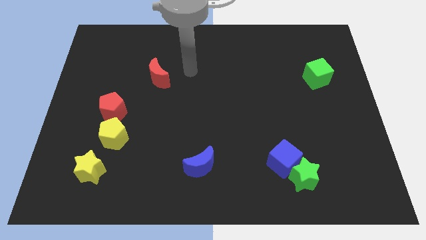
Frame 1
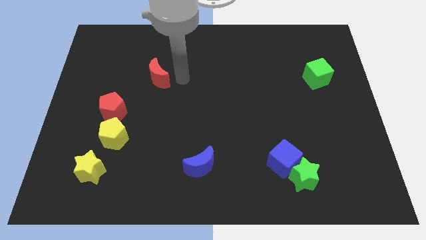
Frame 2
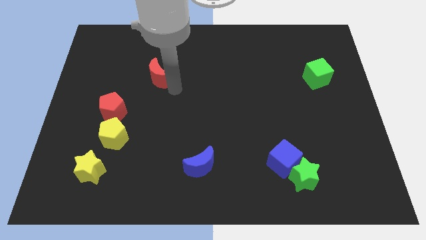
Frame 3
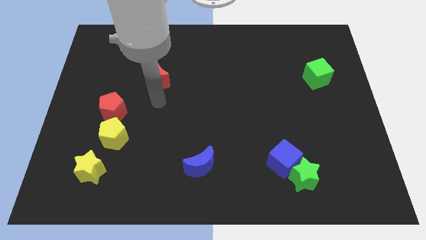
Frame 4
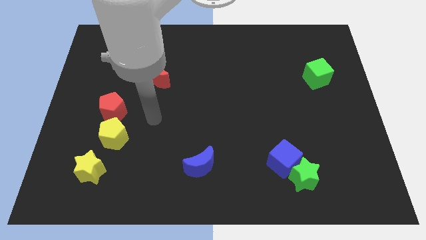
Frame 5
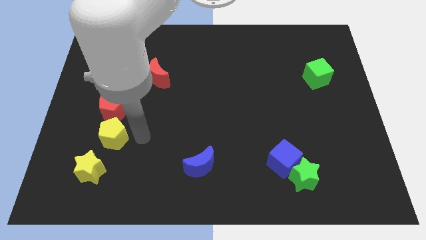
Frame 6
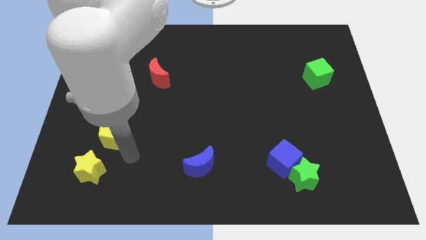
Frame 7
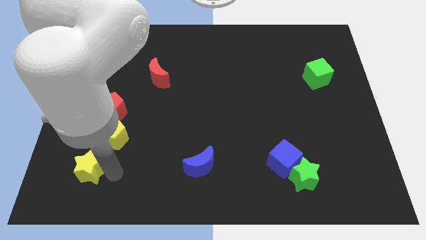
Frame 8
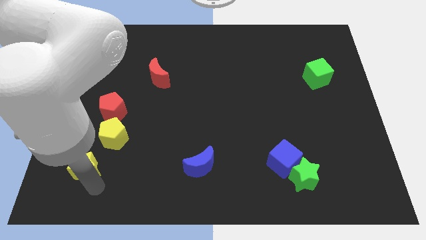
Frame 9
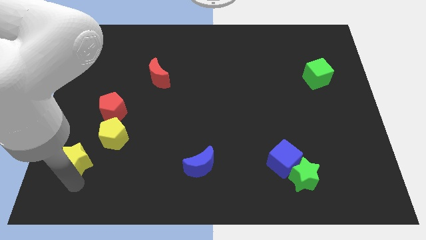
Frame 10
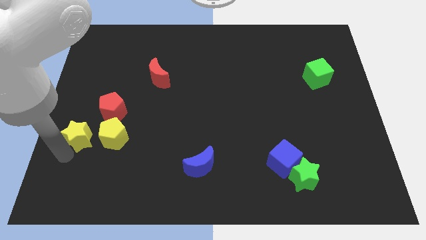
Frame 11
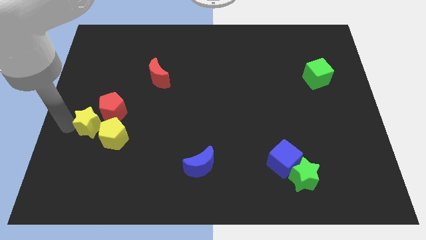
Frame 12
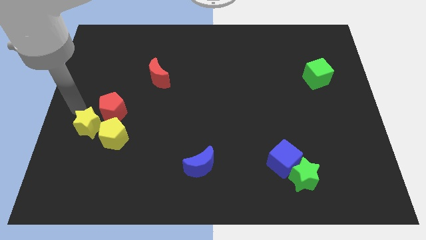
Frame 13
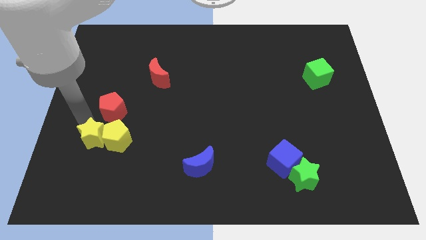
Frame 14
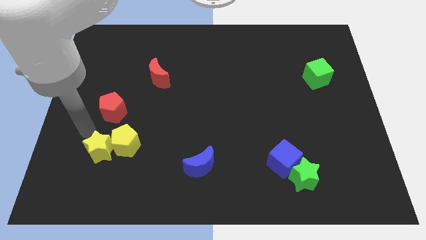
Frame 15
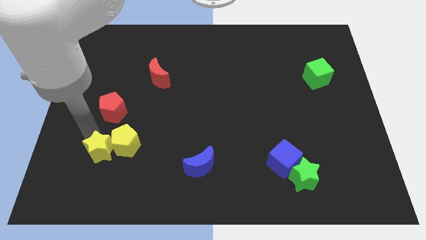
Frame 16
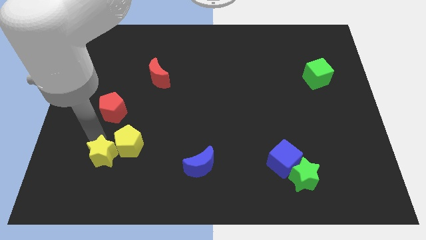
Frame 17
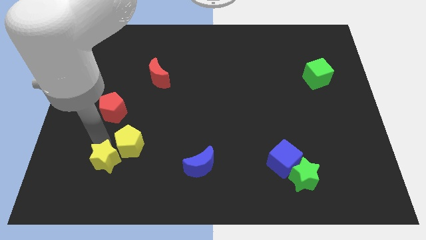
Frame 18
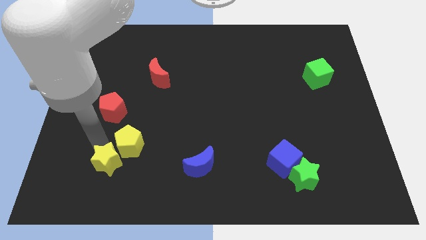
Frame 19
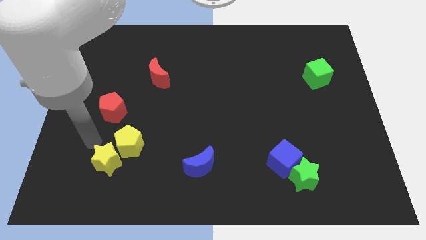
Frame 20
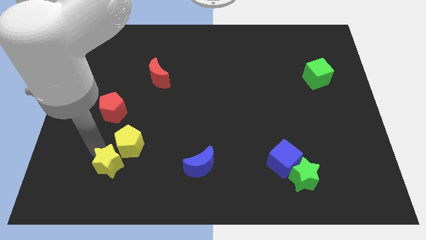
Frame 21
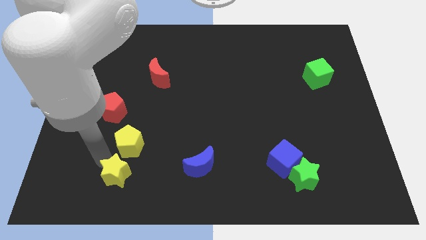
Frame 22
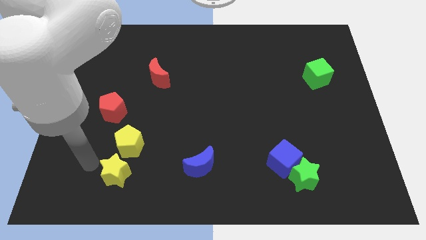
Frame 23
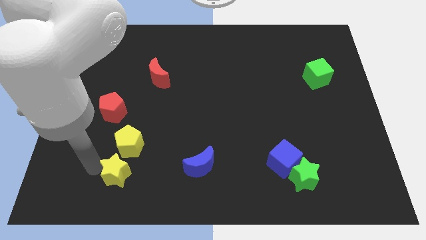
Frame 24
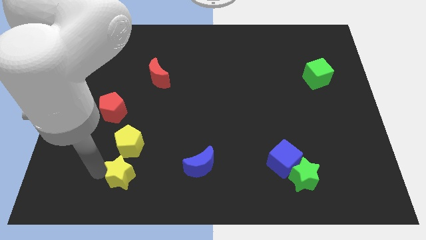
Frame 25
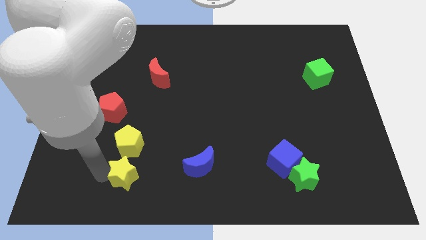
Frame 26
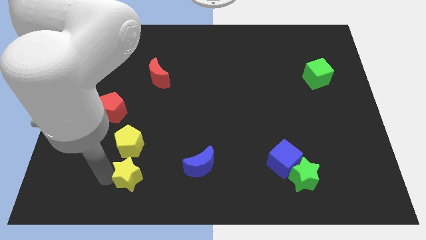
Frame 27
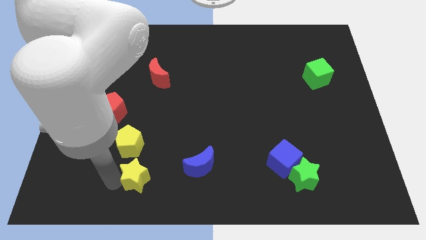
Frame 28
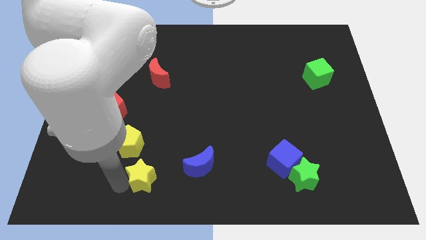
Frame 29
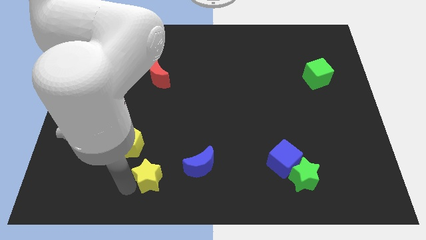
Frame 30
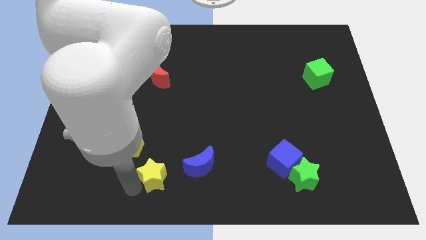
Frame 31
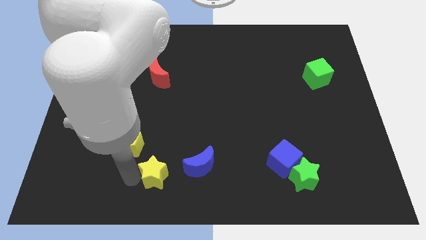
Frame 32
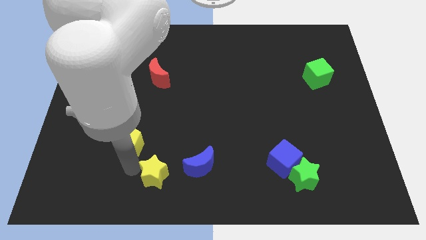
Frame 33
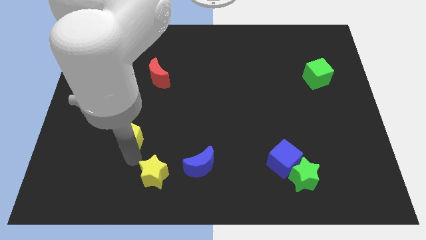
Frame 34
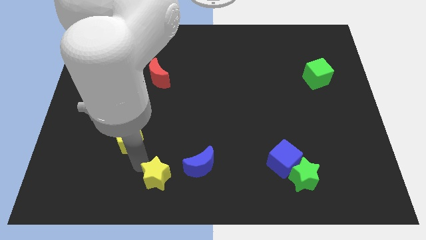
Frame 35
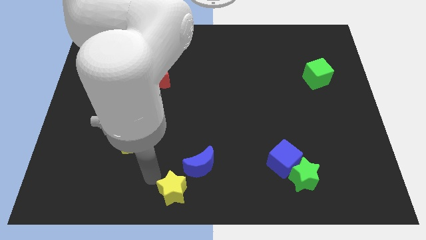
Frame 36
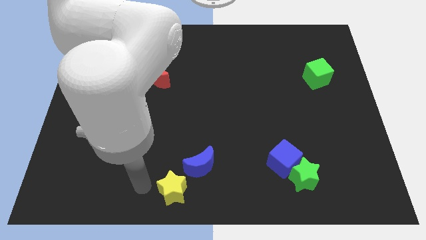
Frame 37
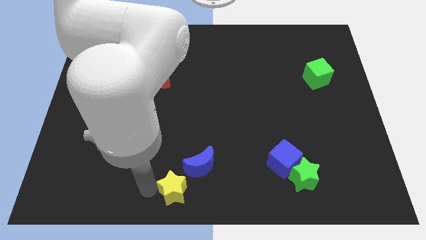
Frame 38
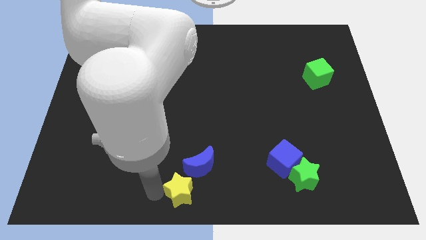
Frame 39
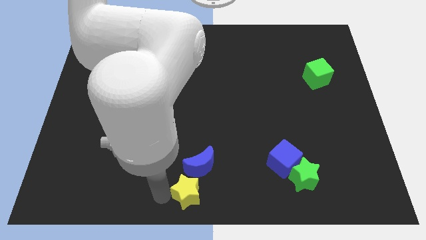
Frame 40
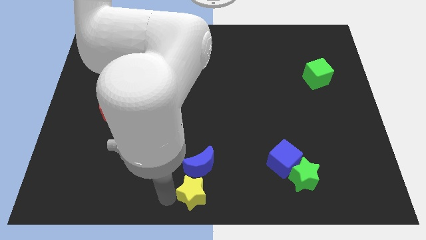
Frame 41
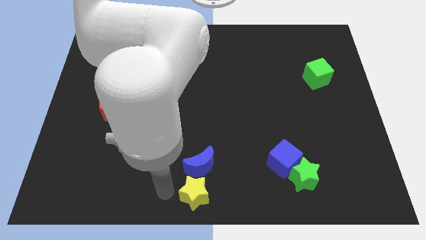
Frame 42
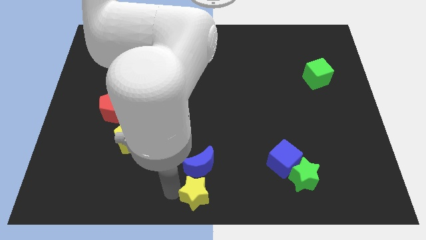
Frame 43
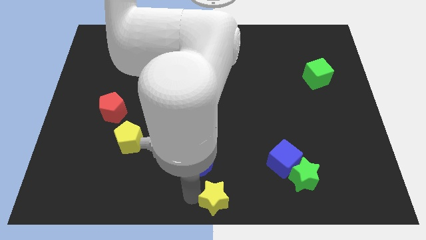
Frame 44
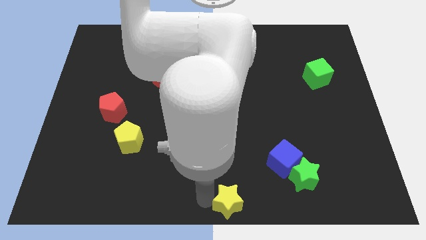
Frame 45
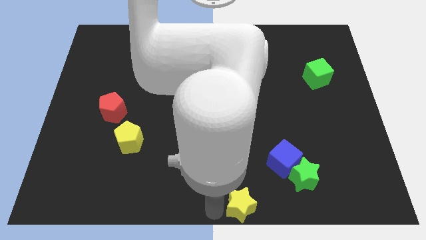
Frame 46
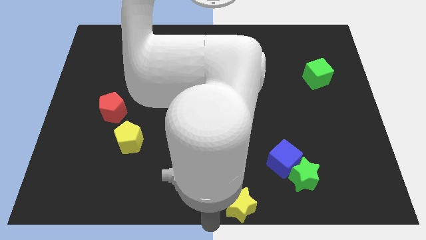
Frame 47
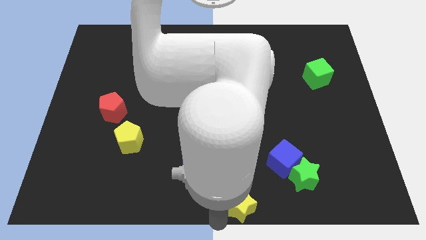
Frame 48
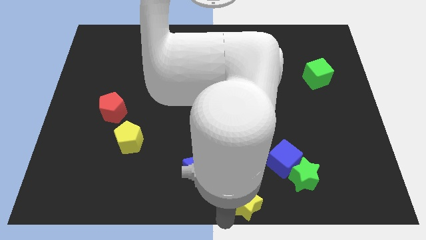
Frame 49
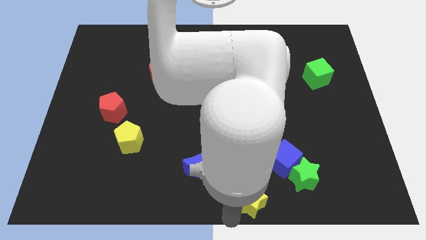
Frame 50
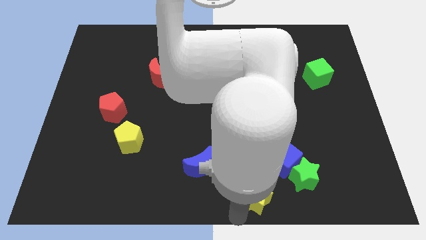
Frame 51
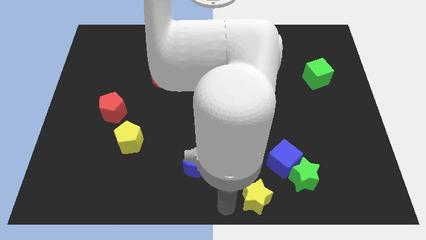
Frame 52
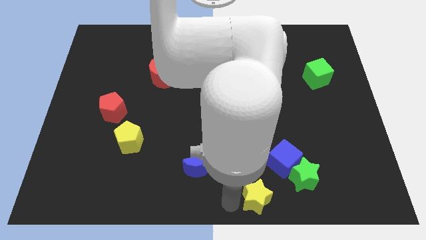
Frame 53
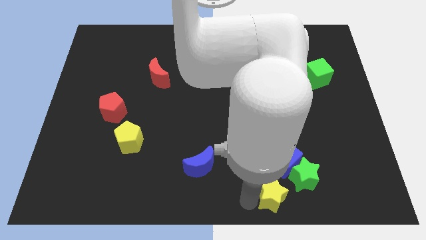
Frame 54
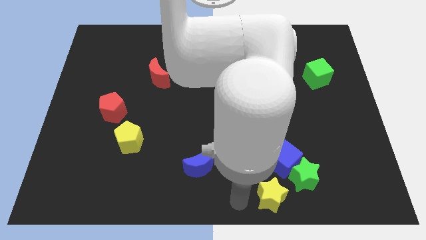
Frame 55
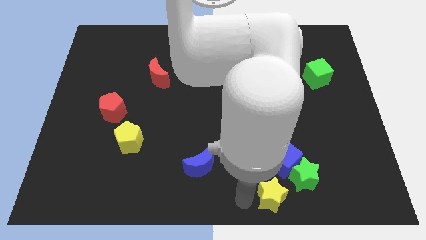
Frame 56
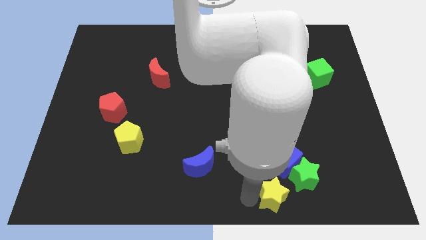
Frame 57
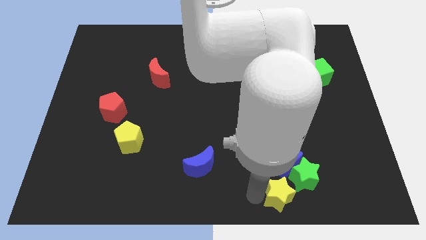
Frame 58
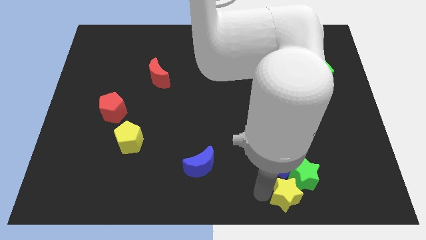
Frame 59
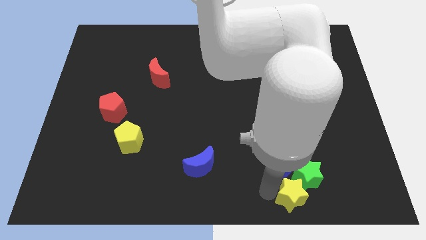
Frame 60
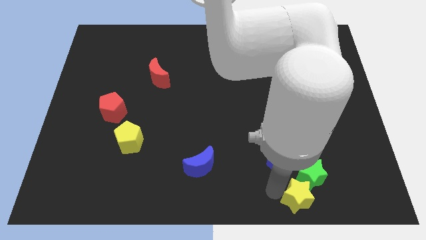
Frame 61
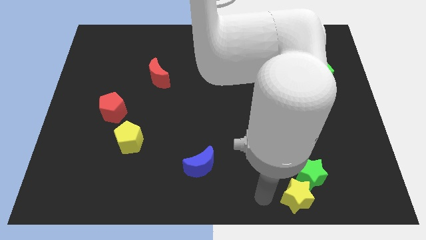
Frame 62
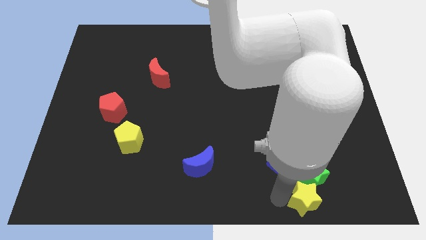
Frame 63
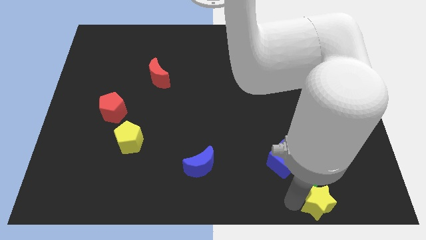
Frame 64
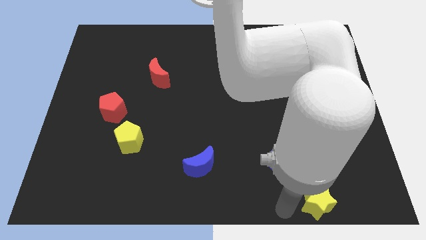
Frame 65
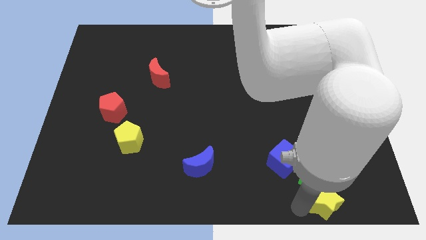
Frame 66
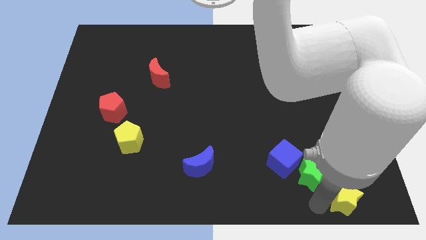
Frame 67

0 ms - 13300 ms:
slide the yellow star to the lower right corner

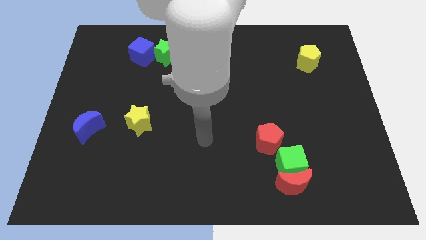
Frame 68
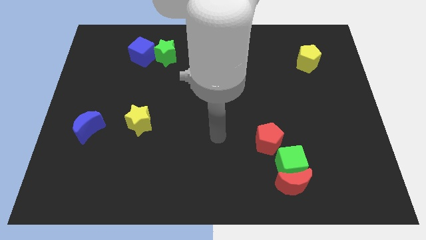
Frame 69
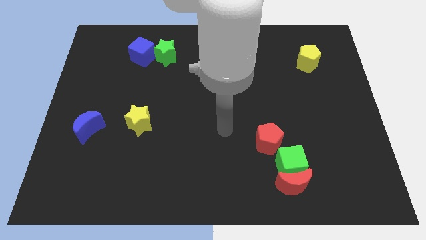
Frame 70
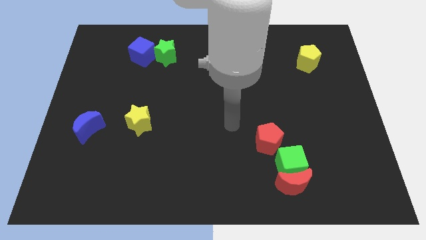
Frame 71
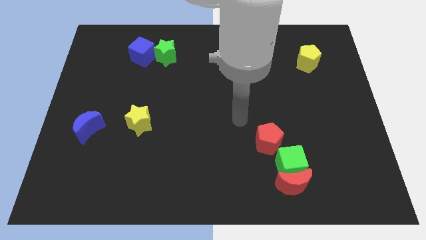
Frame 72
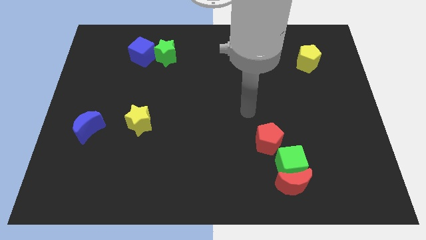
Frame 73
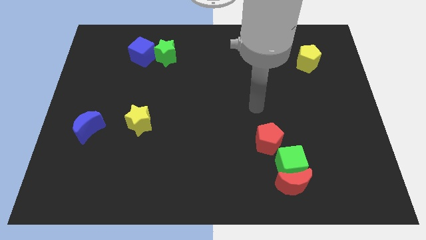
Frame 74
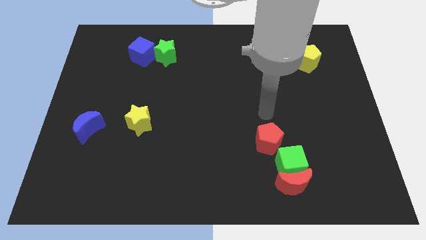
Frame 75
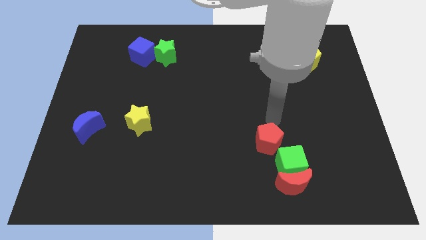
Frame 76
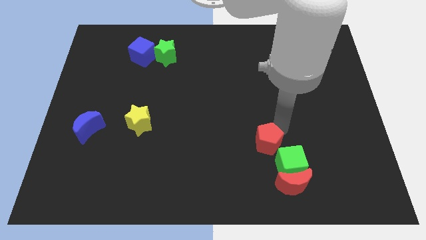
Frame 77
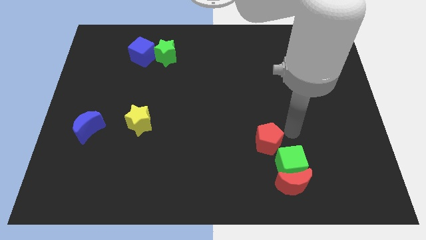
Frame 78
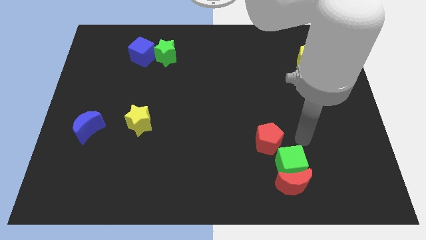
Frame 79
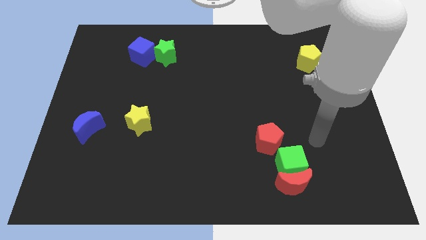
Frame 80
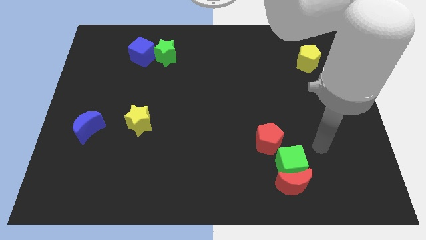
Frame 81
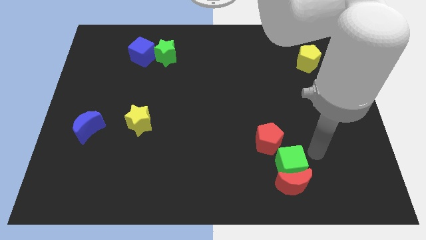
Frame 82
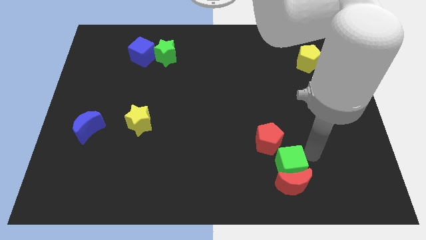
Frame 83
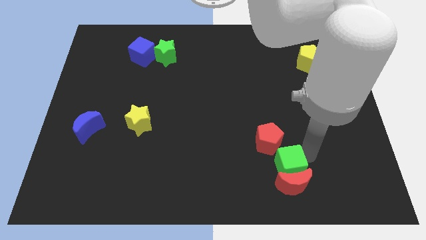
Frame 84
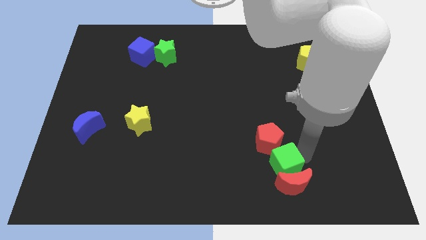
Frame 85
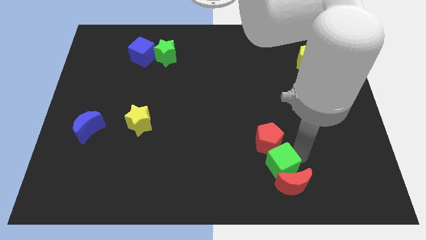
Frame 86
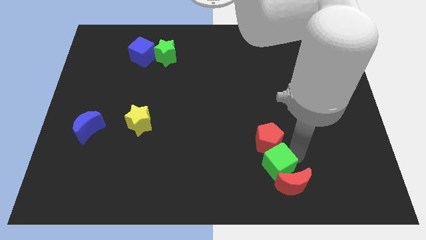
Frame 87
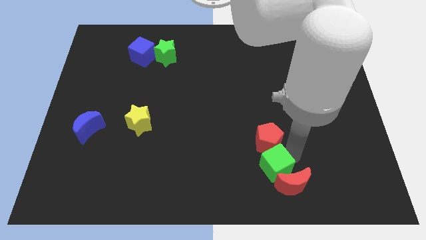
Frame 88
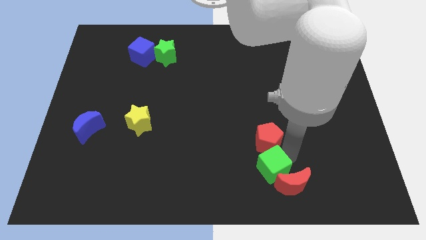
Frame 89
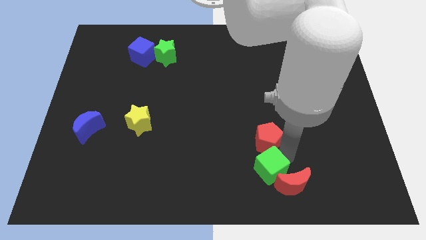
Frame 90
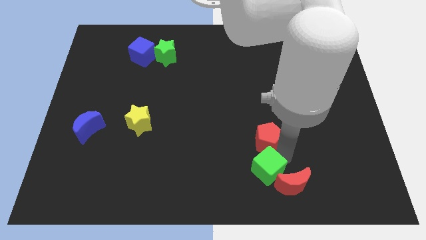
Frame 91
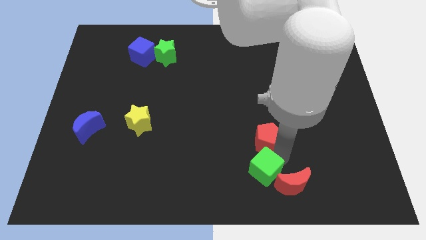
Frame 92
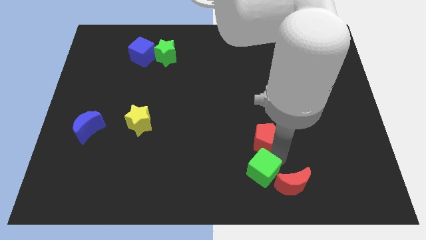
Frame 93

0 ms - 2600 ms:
move the green cube to the bottom side
